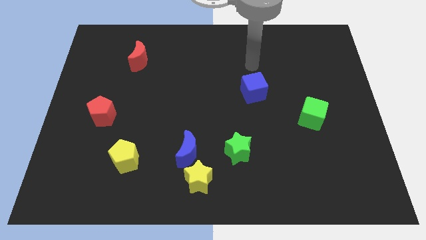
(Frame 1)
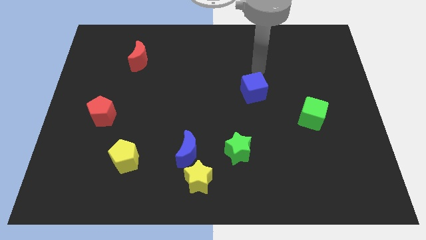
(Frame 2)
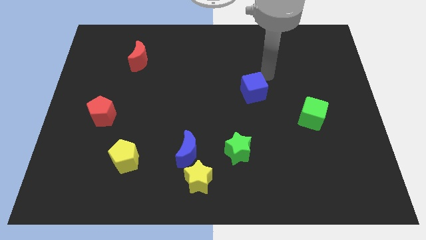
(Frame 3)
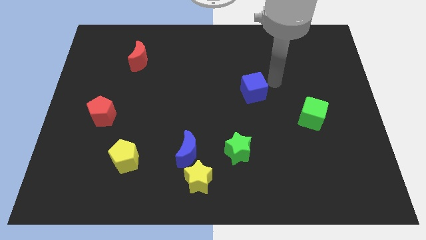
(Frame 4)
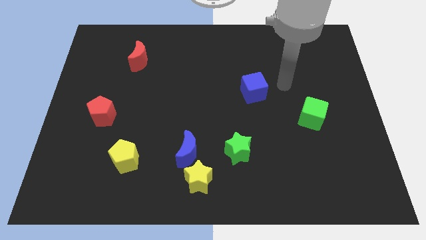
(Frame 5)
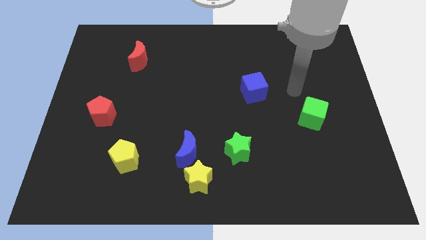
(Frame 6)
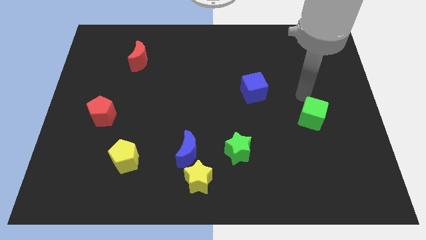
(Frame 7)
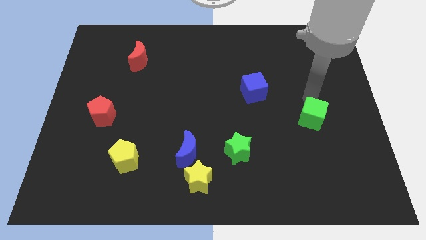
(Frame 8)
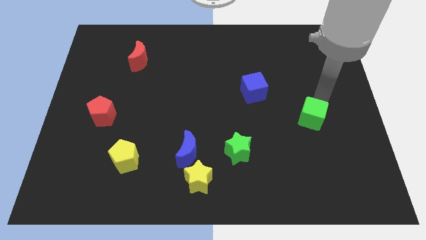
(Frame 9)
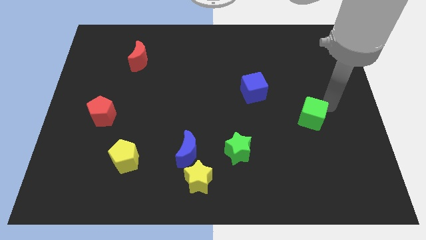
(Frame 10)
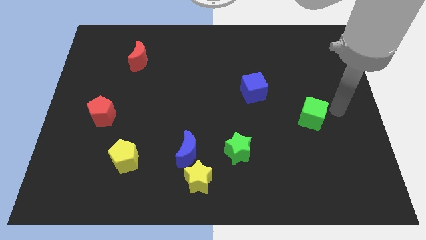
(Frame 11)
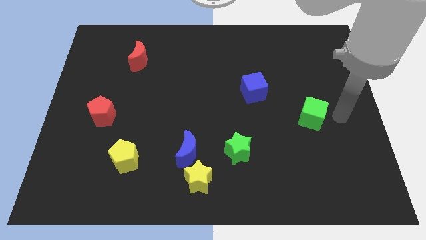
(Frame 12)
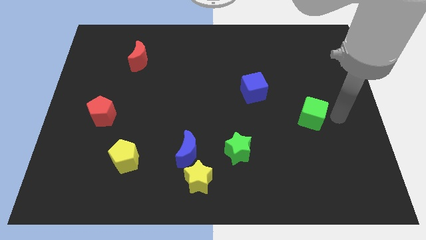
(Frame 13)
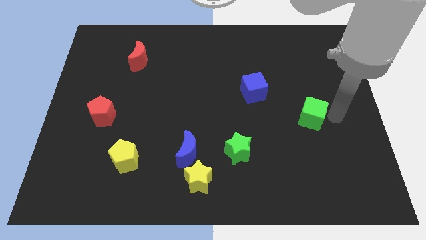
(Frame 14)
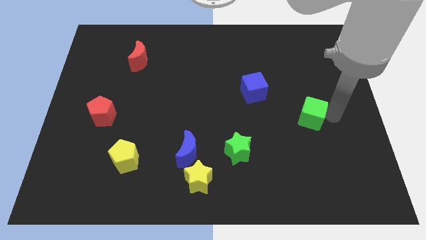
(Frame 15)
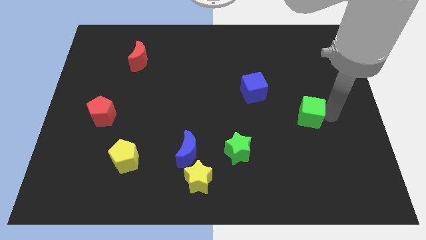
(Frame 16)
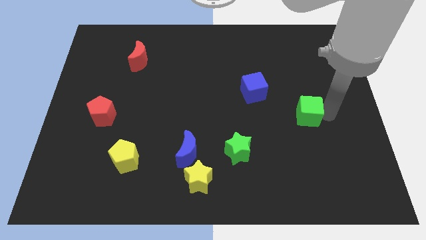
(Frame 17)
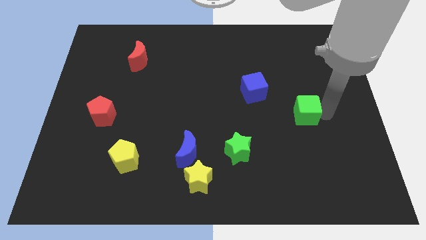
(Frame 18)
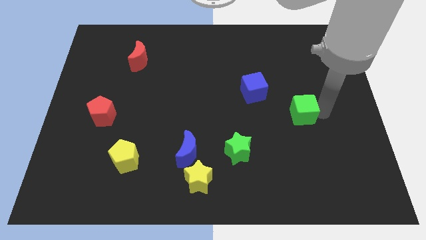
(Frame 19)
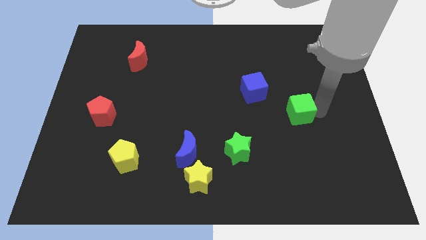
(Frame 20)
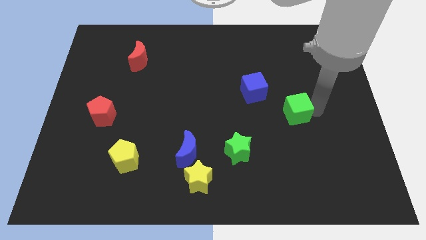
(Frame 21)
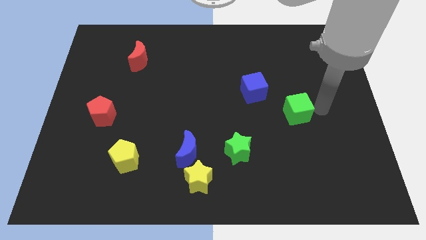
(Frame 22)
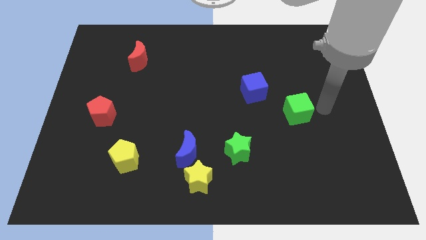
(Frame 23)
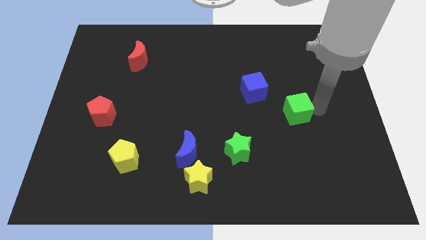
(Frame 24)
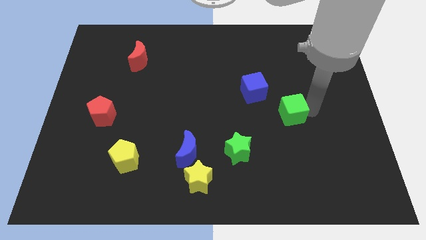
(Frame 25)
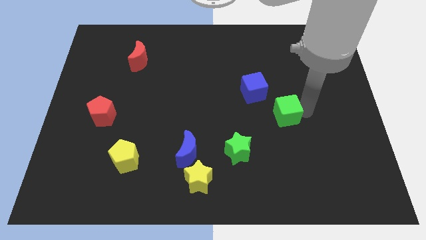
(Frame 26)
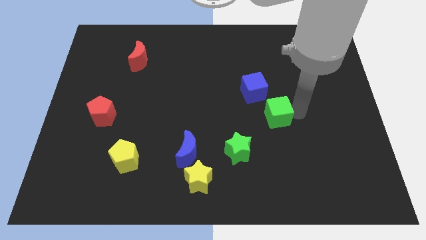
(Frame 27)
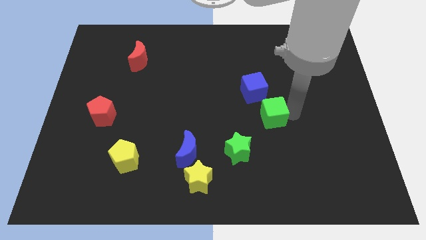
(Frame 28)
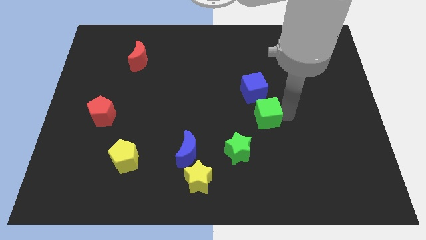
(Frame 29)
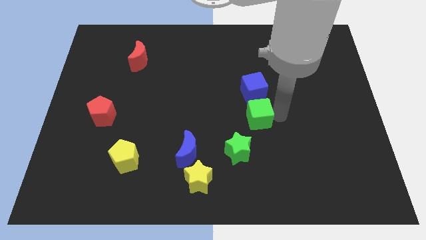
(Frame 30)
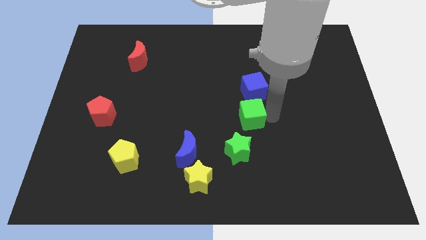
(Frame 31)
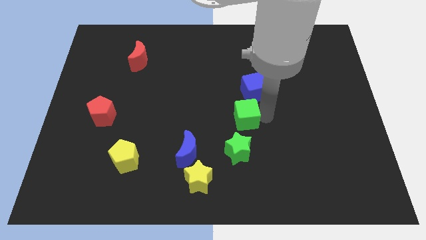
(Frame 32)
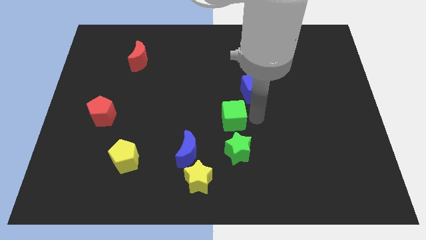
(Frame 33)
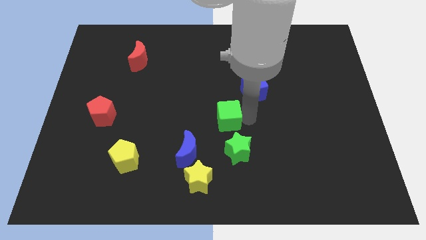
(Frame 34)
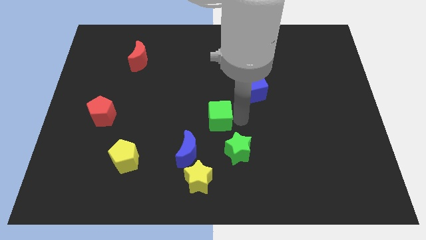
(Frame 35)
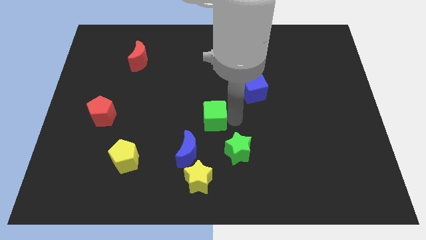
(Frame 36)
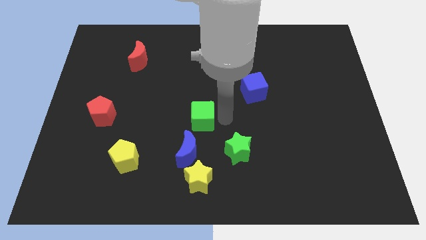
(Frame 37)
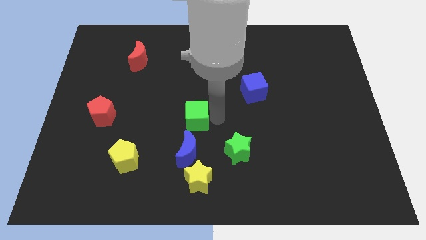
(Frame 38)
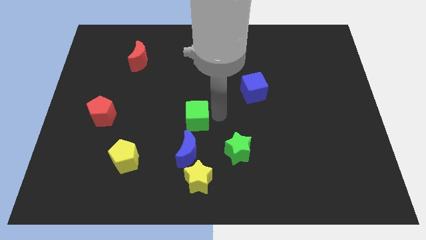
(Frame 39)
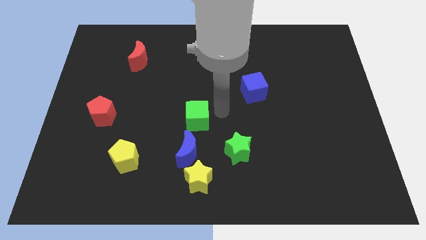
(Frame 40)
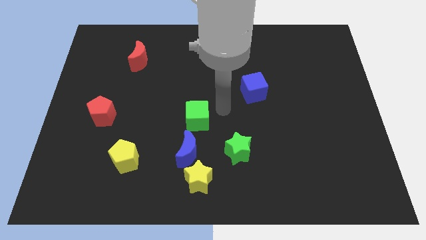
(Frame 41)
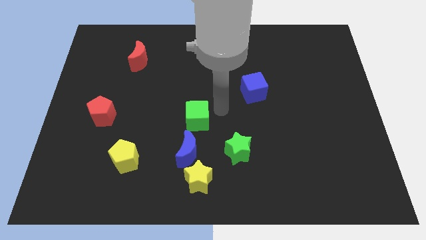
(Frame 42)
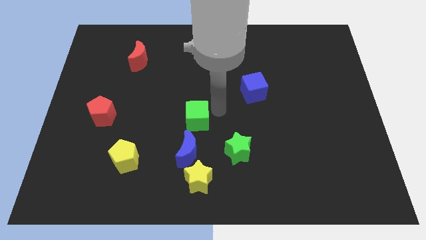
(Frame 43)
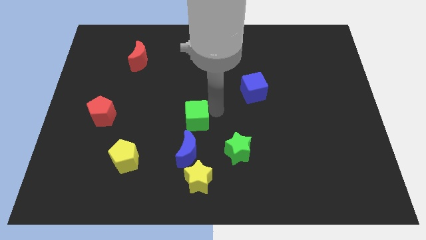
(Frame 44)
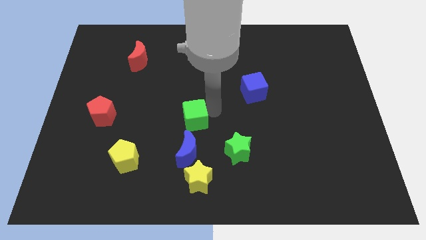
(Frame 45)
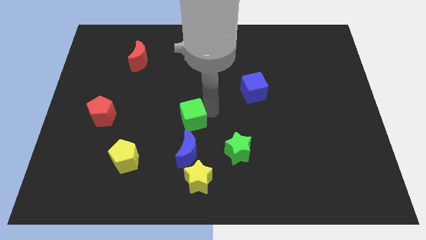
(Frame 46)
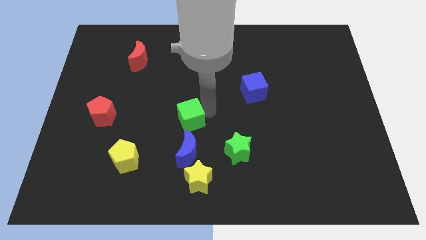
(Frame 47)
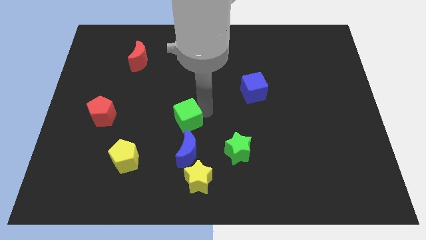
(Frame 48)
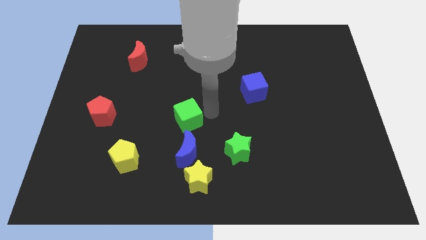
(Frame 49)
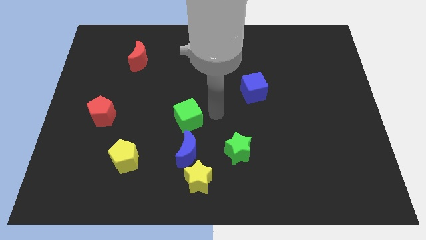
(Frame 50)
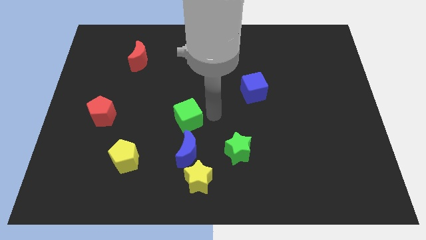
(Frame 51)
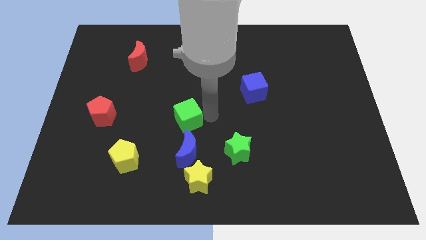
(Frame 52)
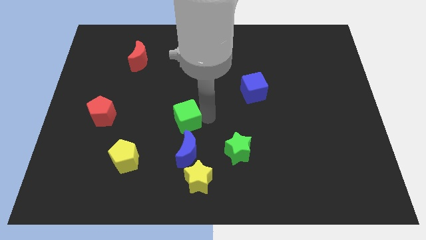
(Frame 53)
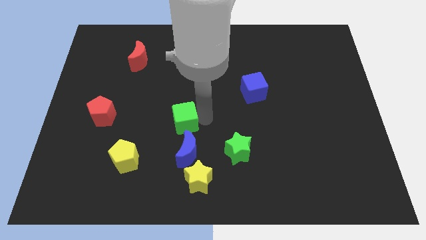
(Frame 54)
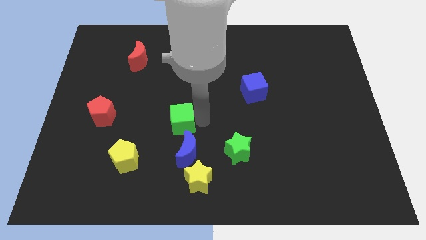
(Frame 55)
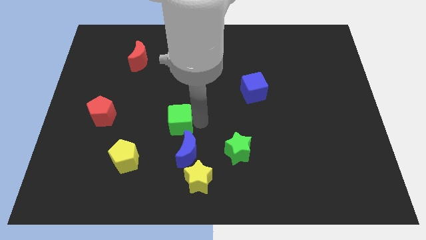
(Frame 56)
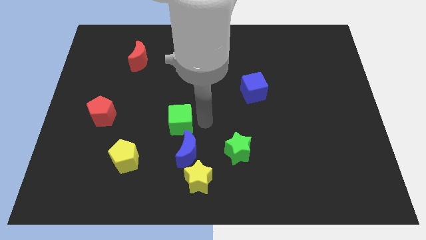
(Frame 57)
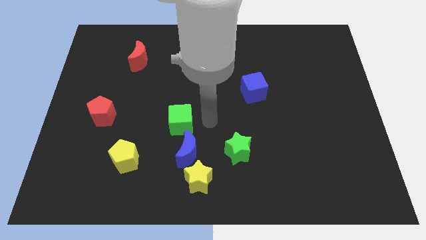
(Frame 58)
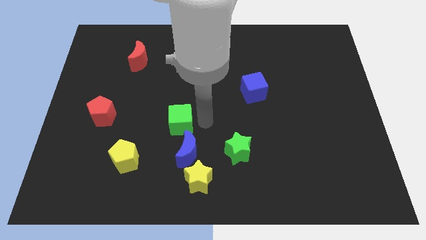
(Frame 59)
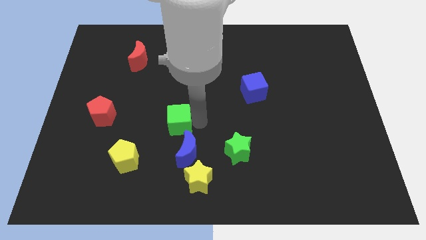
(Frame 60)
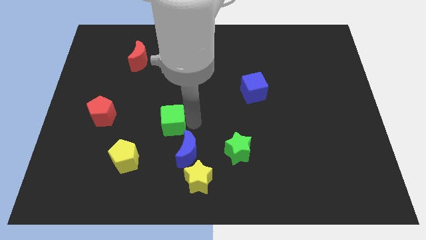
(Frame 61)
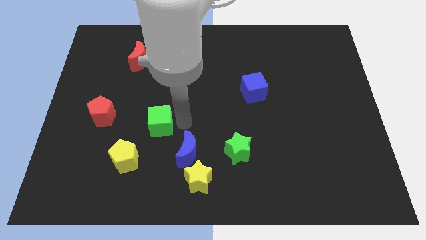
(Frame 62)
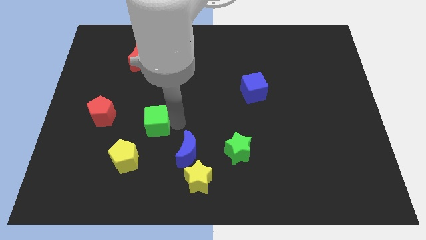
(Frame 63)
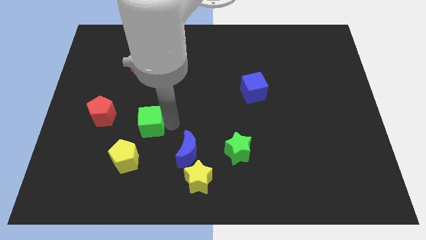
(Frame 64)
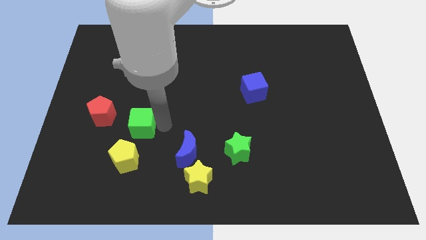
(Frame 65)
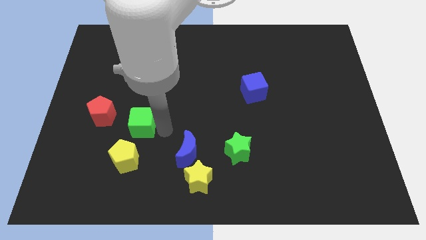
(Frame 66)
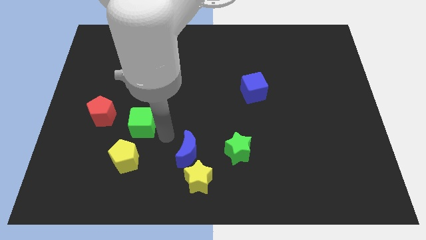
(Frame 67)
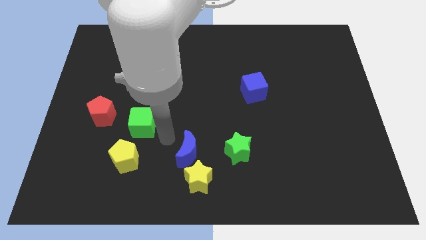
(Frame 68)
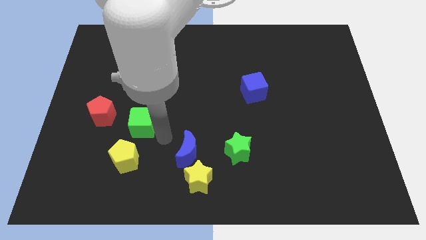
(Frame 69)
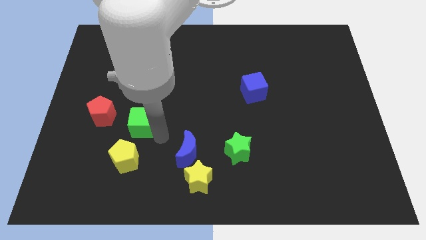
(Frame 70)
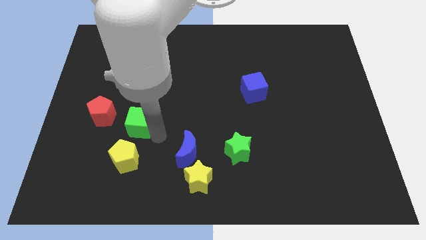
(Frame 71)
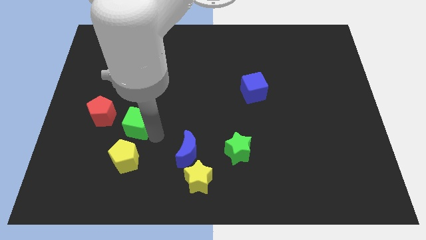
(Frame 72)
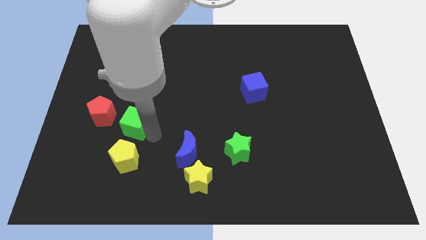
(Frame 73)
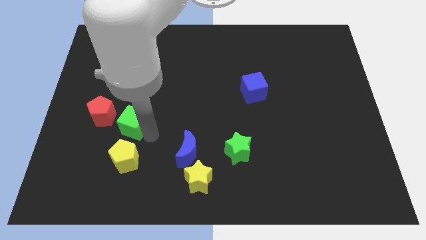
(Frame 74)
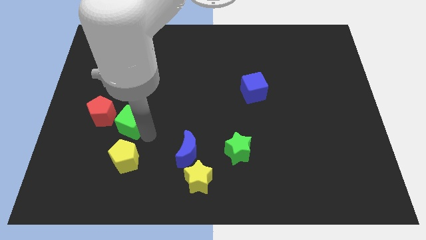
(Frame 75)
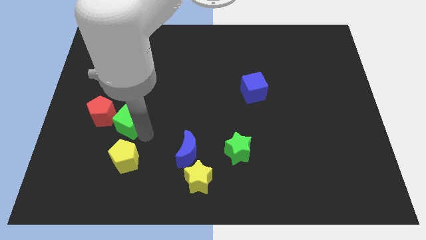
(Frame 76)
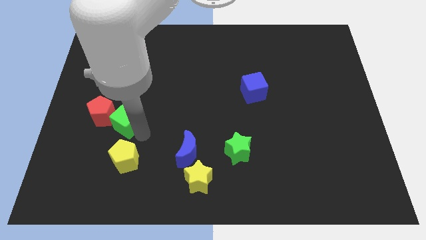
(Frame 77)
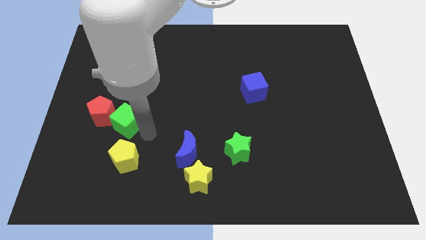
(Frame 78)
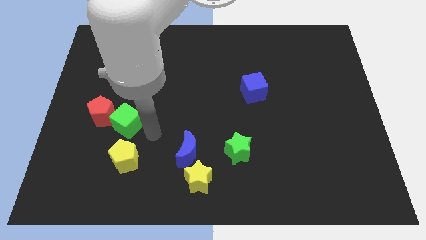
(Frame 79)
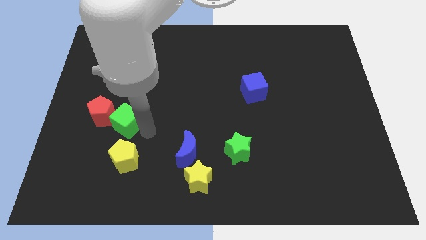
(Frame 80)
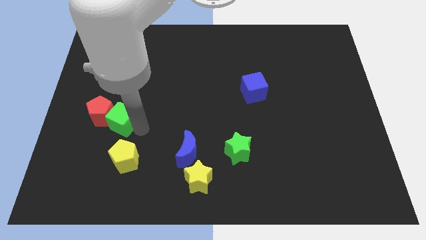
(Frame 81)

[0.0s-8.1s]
slide the green cube towards the red pentagon
